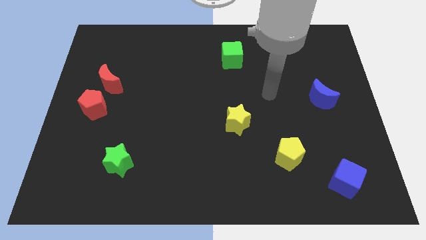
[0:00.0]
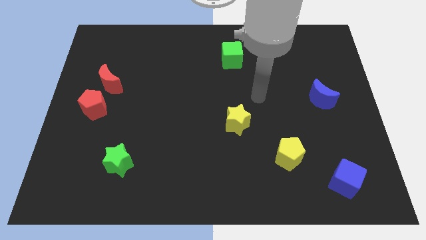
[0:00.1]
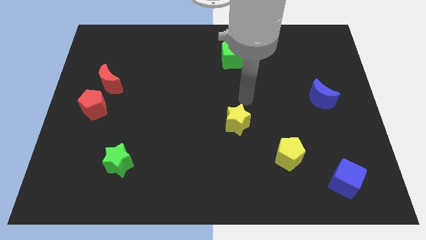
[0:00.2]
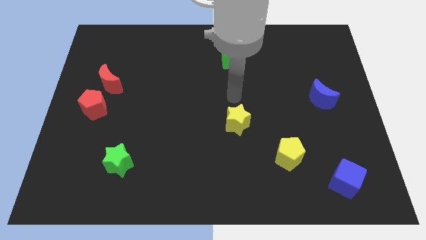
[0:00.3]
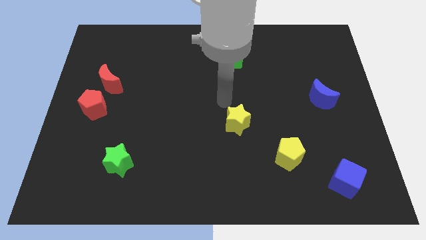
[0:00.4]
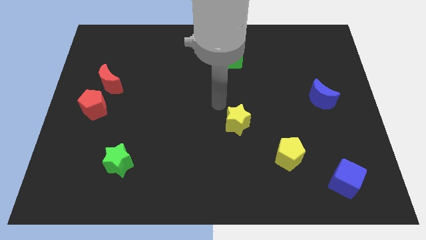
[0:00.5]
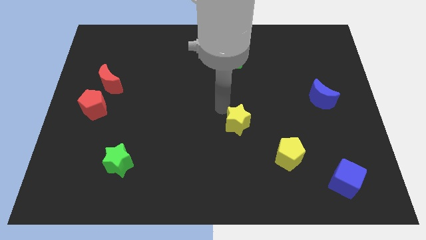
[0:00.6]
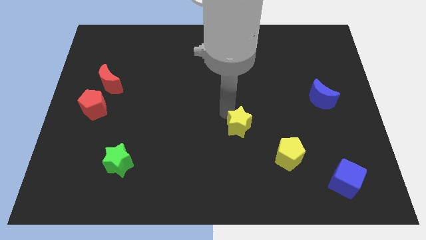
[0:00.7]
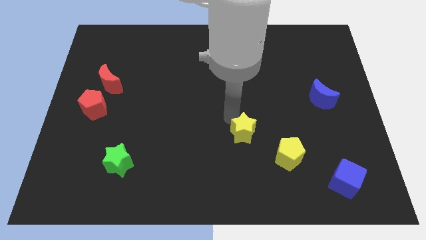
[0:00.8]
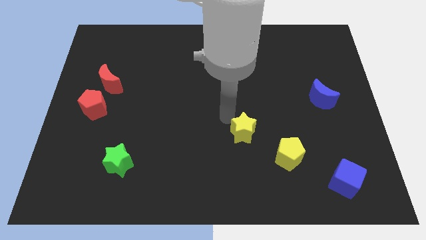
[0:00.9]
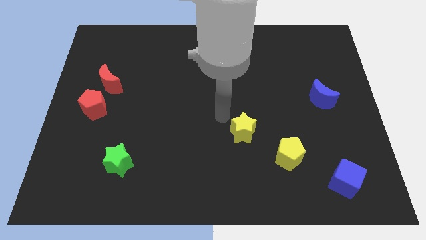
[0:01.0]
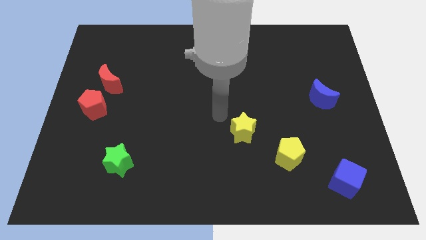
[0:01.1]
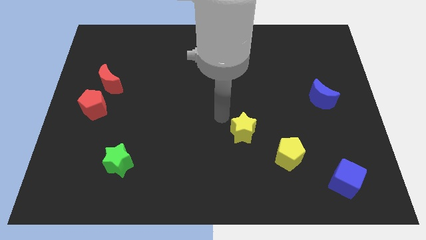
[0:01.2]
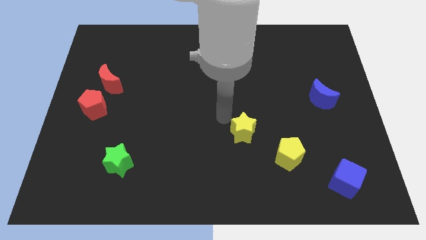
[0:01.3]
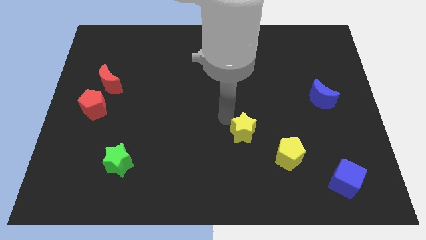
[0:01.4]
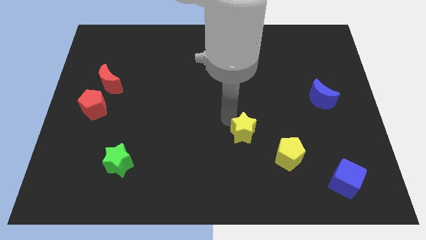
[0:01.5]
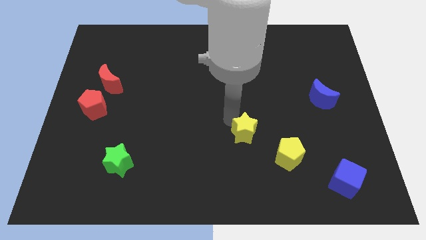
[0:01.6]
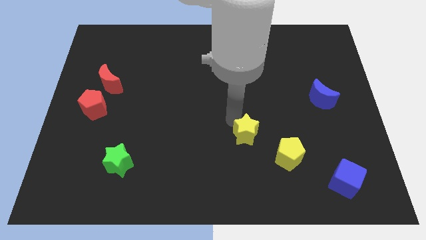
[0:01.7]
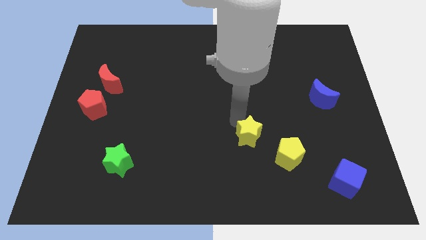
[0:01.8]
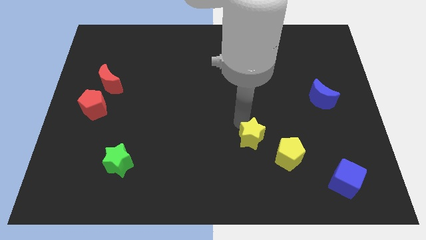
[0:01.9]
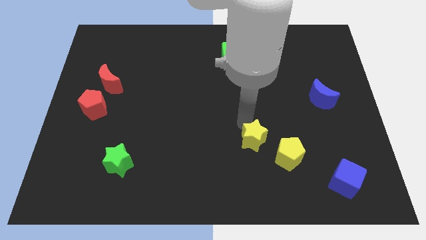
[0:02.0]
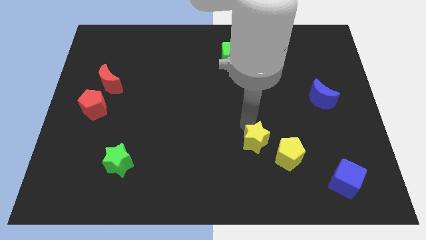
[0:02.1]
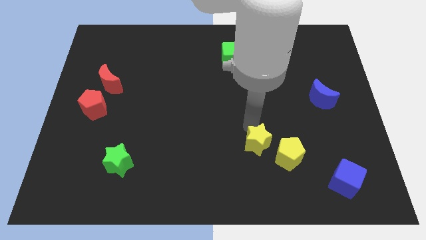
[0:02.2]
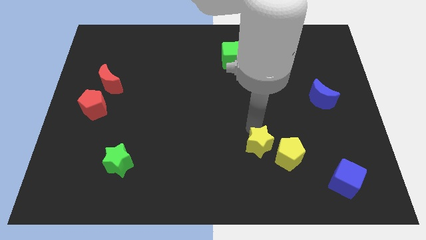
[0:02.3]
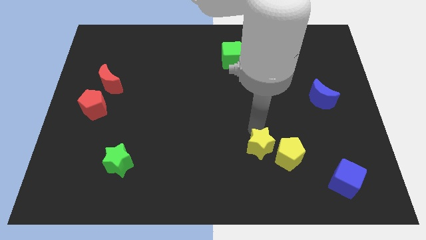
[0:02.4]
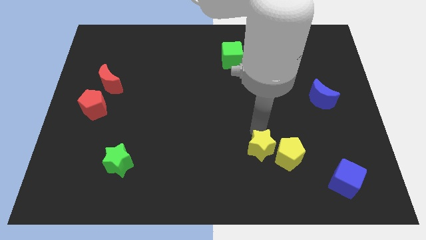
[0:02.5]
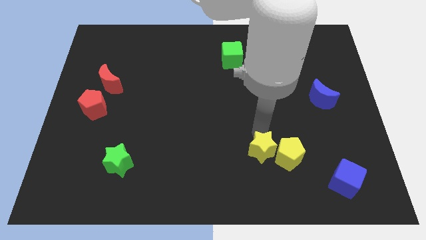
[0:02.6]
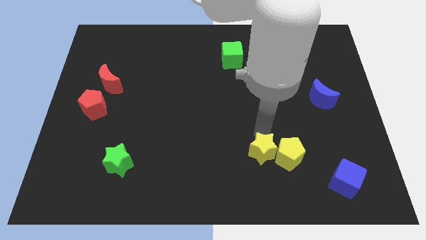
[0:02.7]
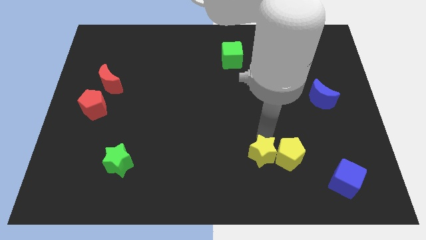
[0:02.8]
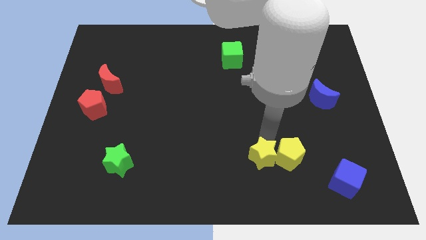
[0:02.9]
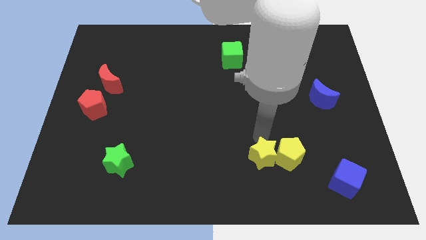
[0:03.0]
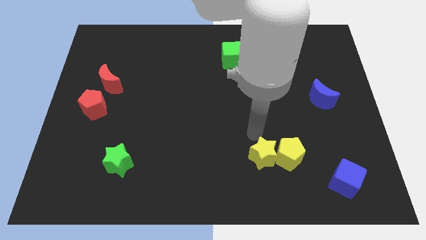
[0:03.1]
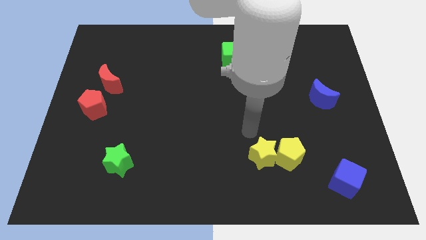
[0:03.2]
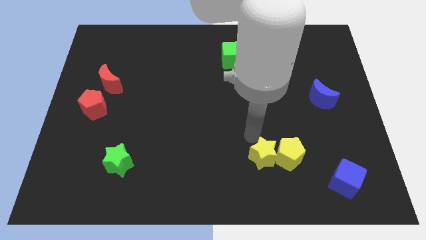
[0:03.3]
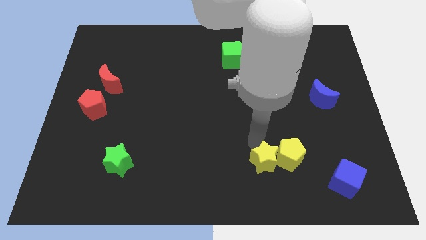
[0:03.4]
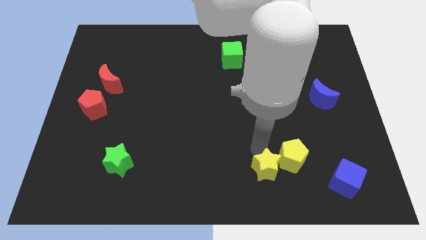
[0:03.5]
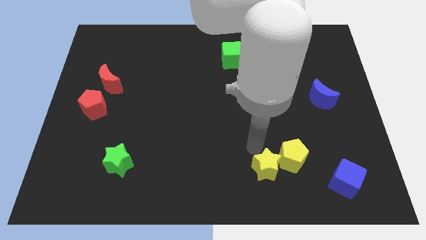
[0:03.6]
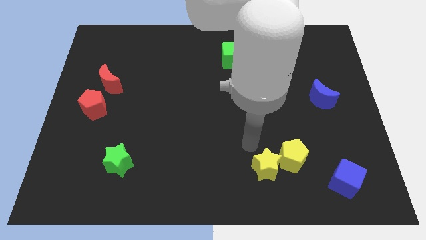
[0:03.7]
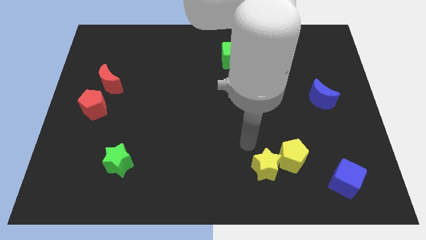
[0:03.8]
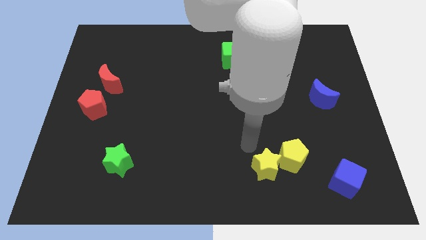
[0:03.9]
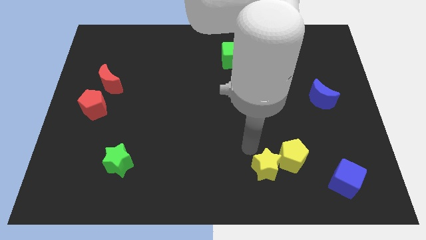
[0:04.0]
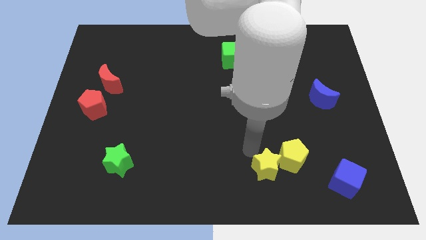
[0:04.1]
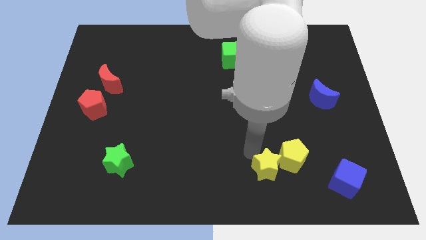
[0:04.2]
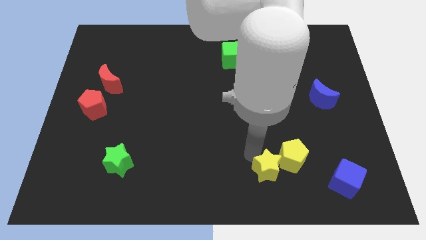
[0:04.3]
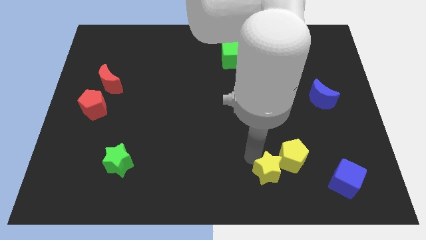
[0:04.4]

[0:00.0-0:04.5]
slide the yellow star to the left of the blue cube

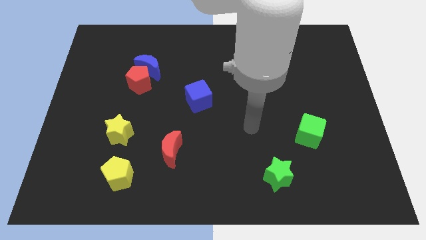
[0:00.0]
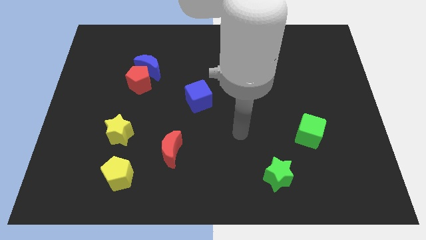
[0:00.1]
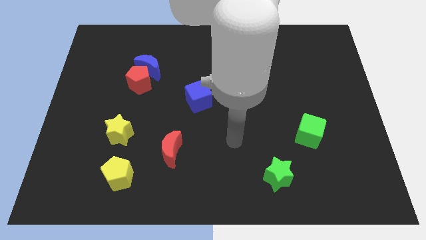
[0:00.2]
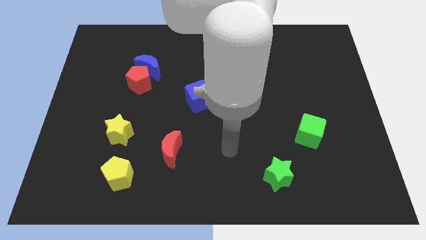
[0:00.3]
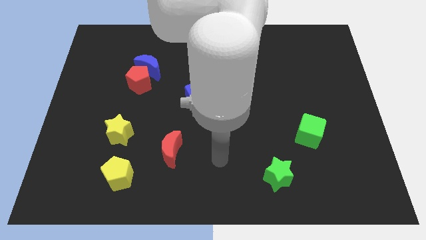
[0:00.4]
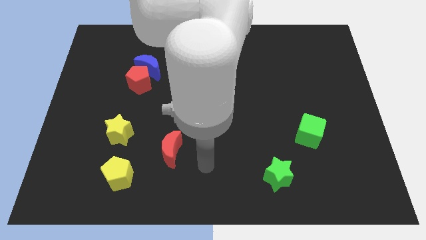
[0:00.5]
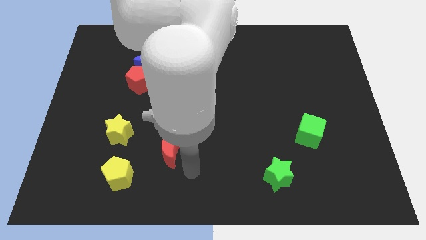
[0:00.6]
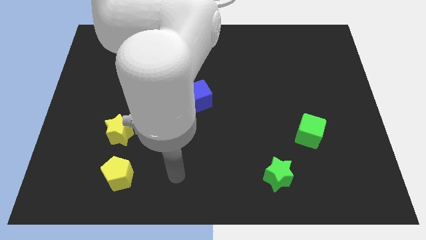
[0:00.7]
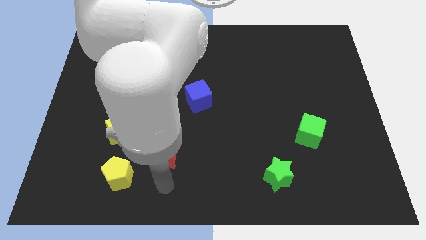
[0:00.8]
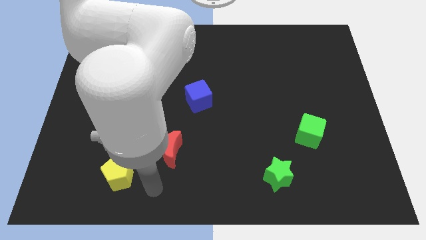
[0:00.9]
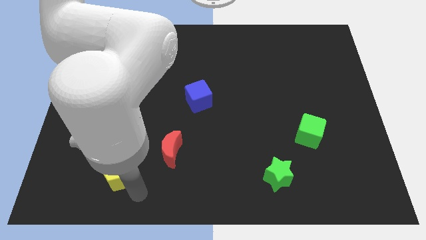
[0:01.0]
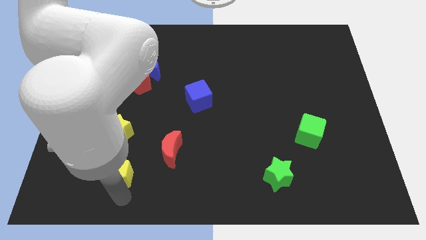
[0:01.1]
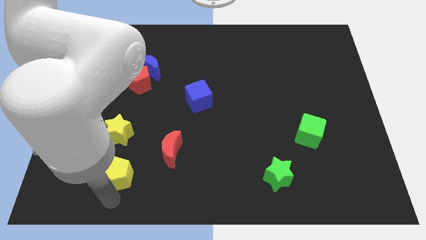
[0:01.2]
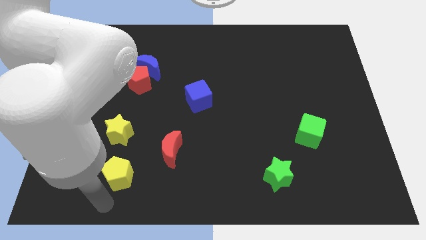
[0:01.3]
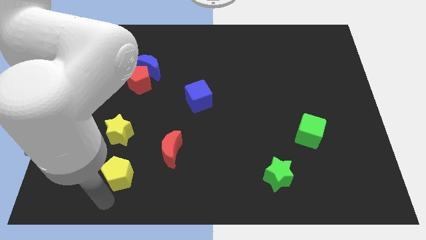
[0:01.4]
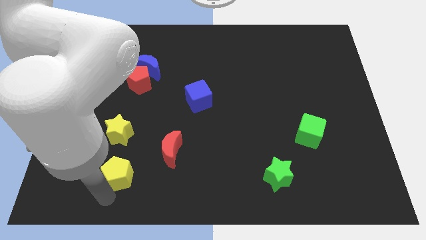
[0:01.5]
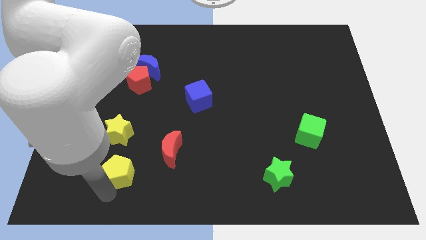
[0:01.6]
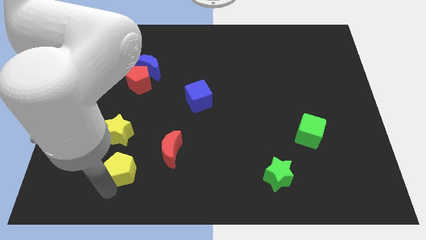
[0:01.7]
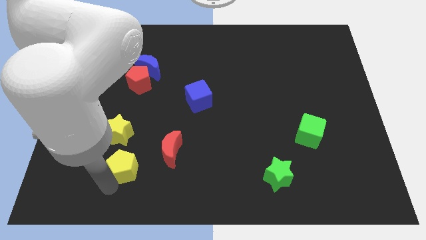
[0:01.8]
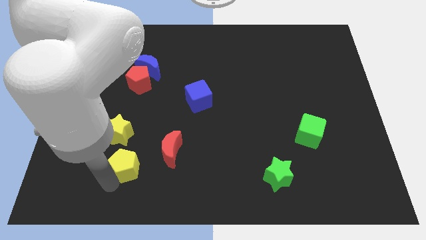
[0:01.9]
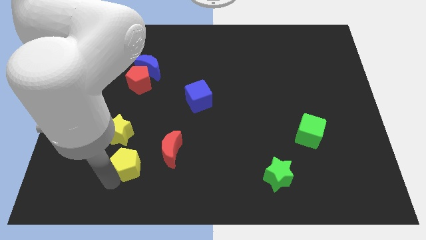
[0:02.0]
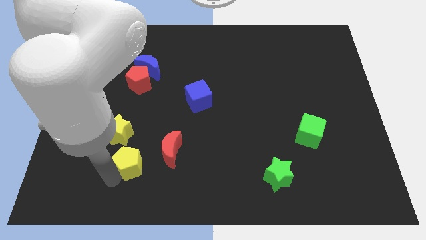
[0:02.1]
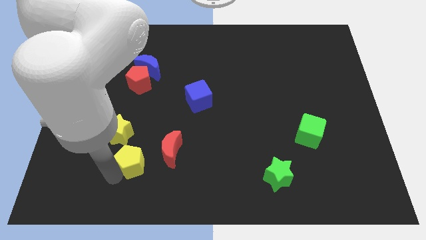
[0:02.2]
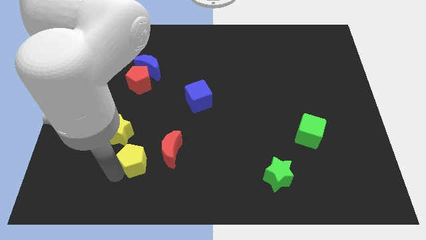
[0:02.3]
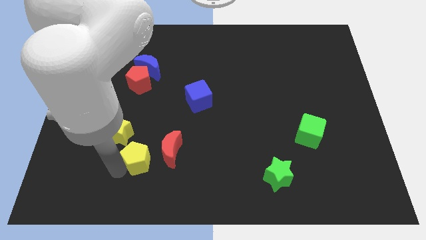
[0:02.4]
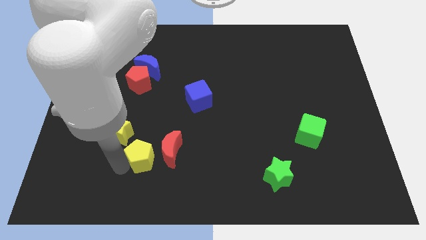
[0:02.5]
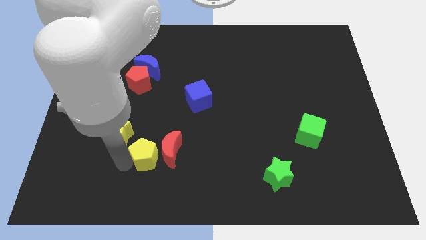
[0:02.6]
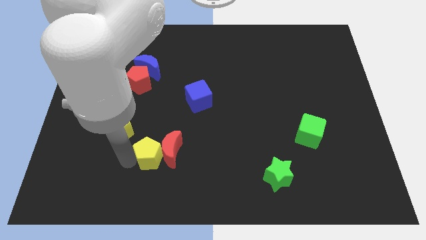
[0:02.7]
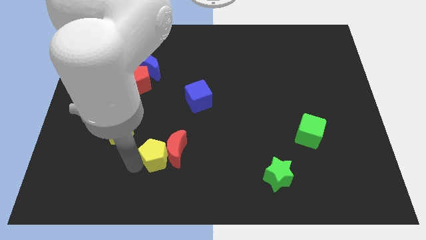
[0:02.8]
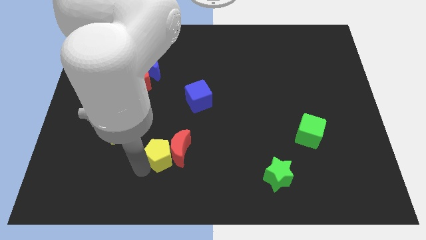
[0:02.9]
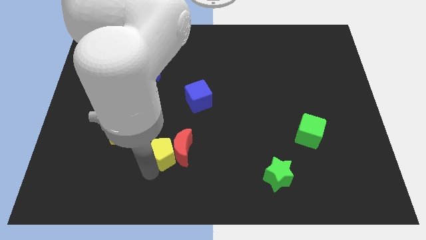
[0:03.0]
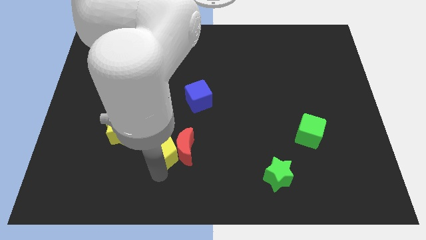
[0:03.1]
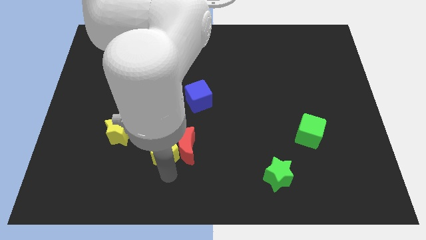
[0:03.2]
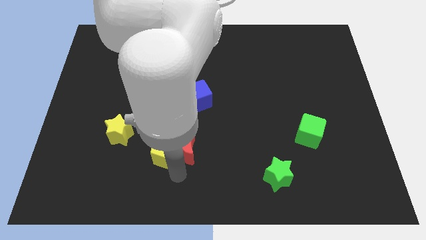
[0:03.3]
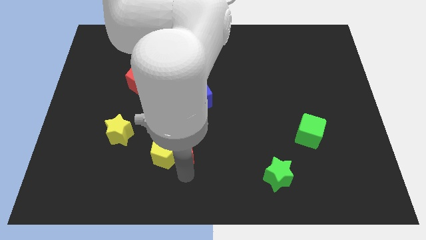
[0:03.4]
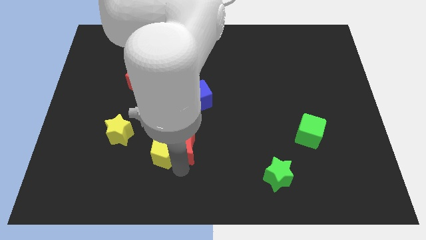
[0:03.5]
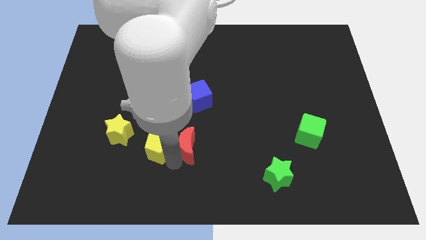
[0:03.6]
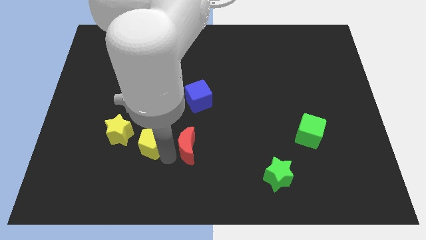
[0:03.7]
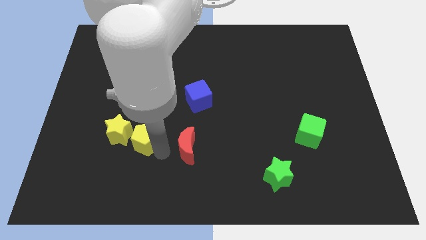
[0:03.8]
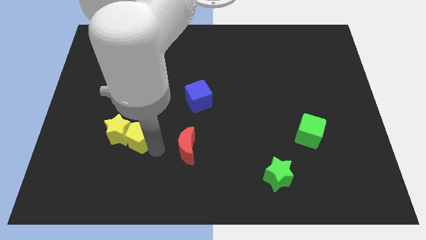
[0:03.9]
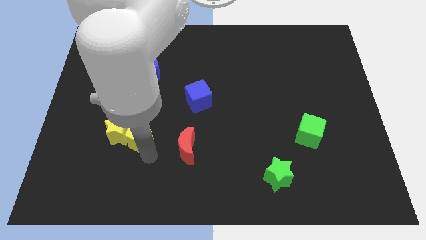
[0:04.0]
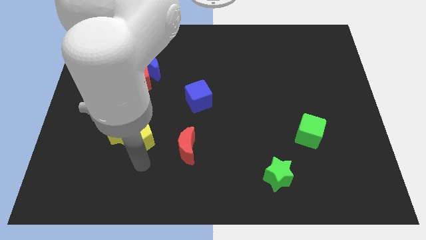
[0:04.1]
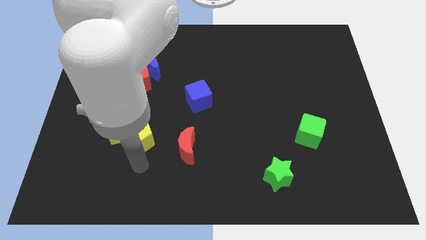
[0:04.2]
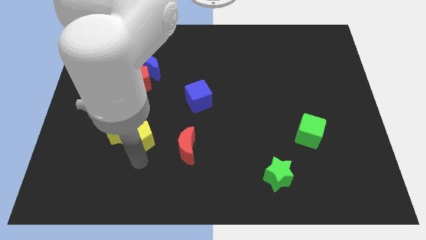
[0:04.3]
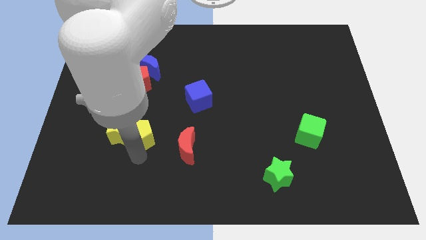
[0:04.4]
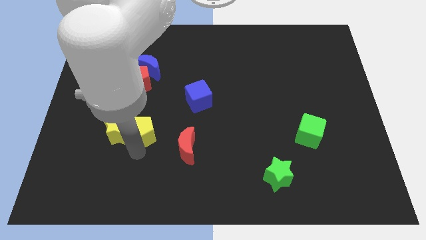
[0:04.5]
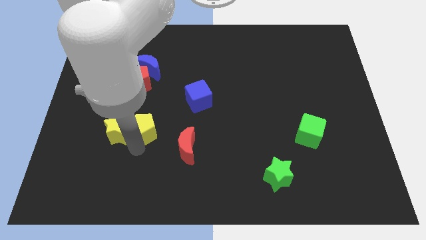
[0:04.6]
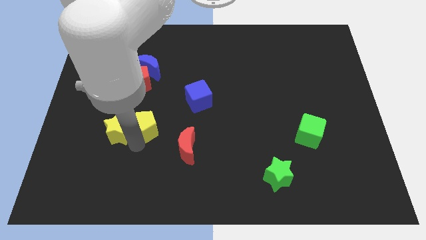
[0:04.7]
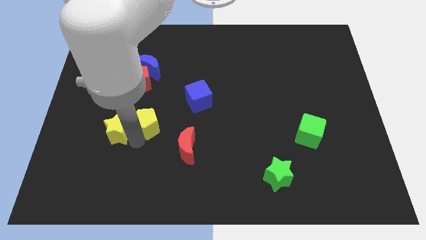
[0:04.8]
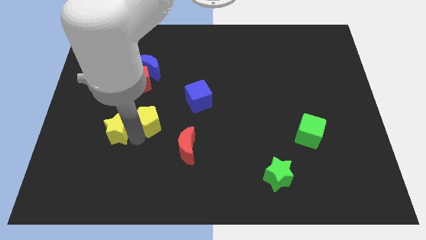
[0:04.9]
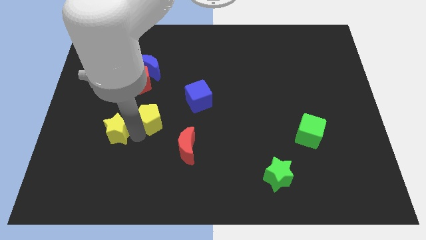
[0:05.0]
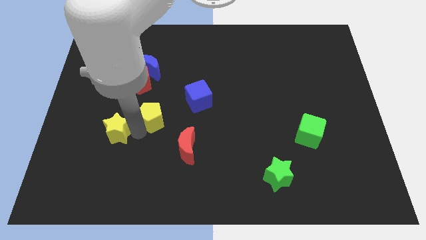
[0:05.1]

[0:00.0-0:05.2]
slide the yellow pentagon below the blue moon
